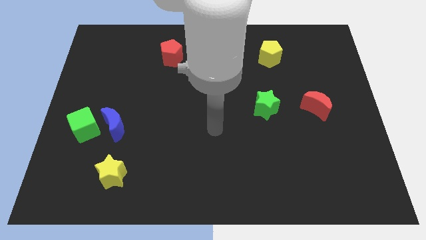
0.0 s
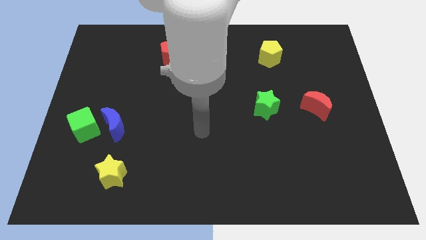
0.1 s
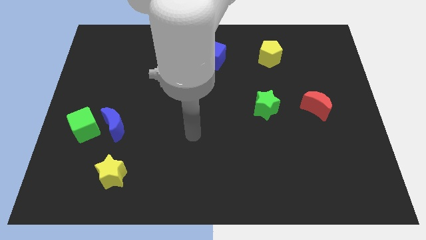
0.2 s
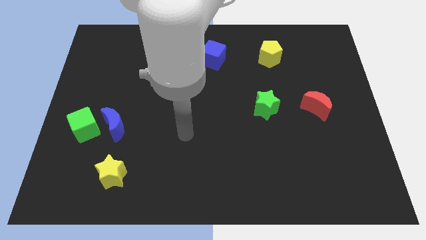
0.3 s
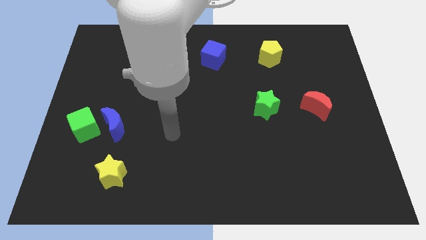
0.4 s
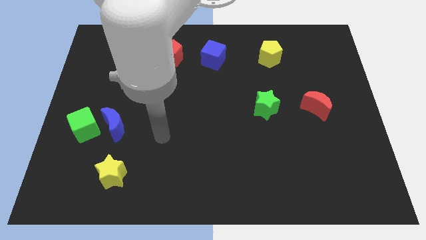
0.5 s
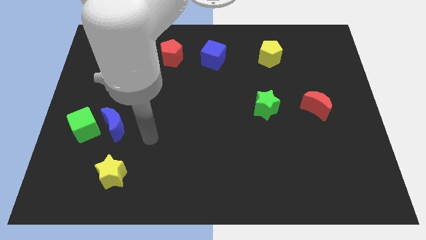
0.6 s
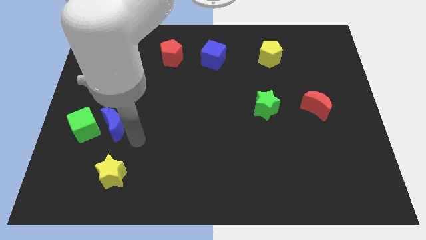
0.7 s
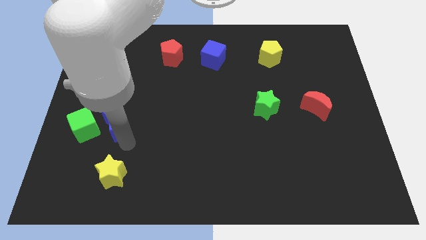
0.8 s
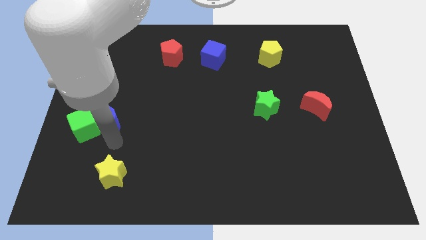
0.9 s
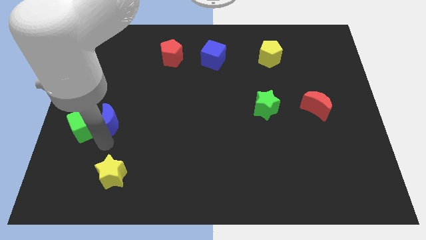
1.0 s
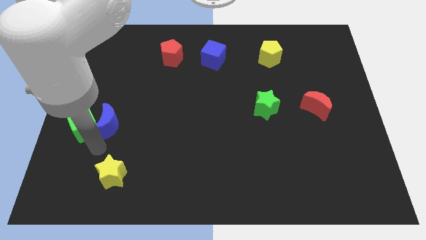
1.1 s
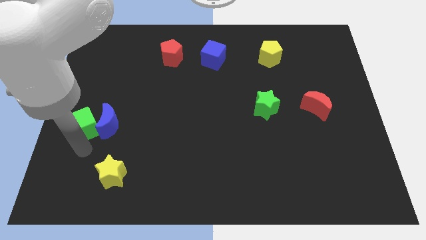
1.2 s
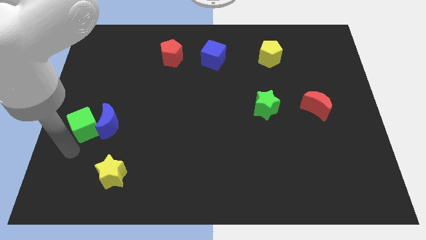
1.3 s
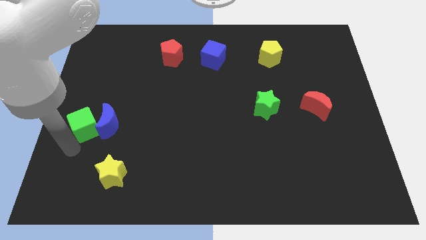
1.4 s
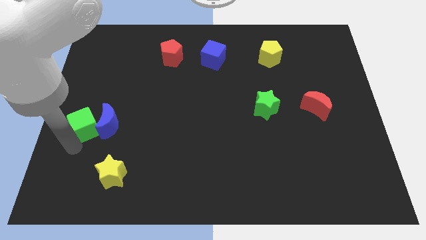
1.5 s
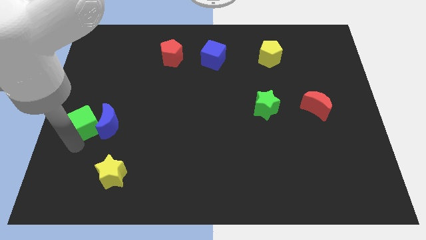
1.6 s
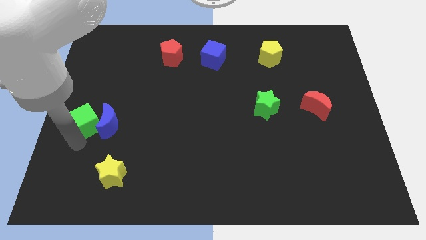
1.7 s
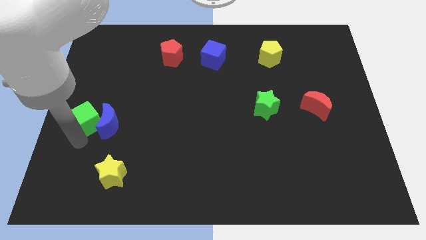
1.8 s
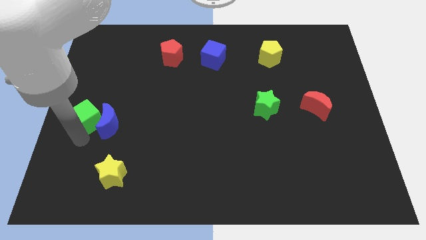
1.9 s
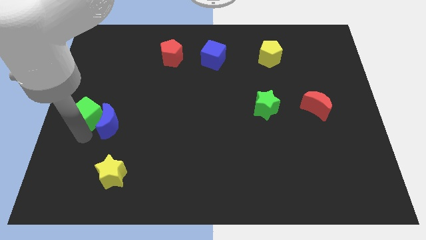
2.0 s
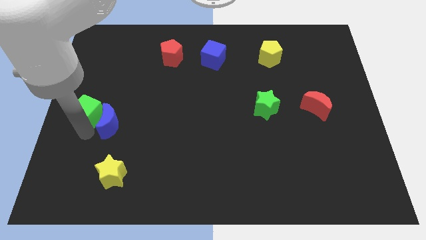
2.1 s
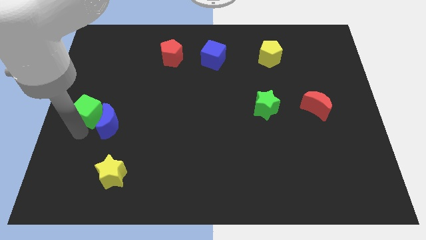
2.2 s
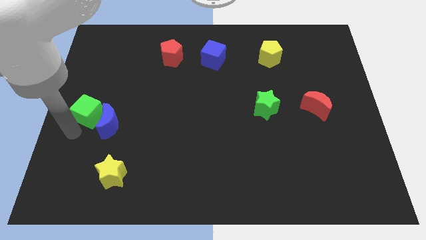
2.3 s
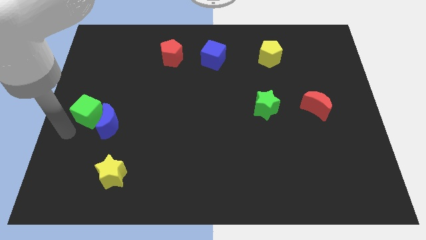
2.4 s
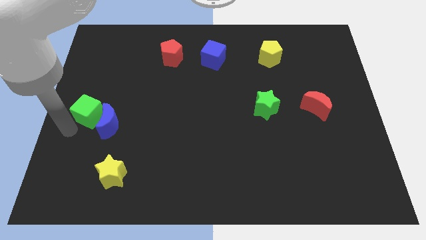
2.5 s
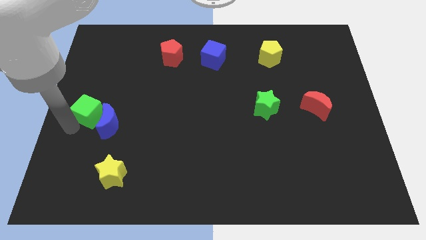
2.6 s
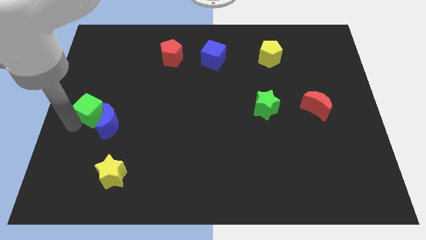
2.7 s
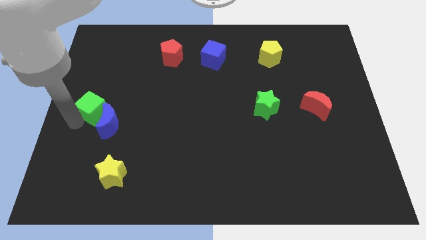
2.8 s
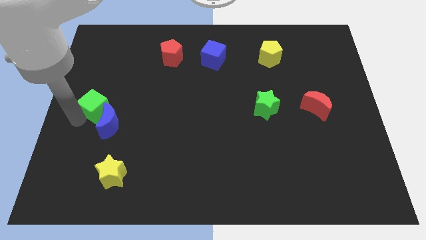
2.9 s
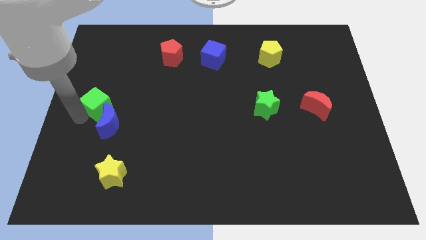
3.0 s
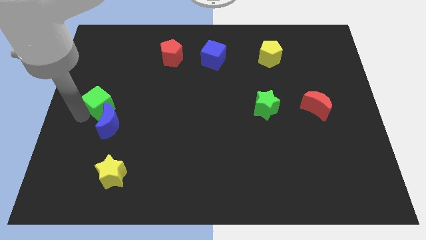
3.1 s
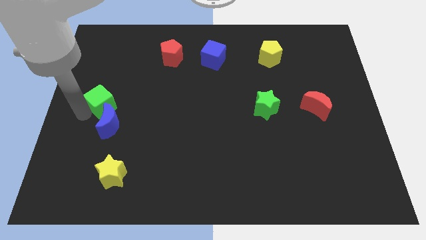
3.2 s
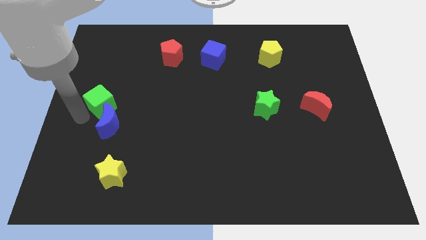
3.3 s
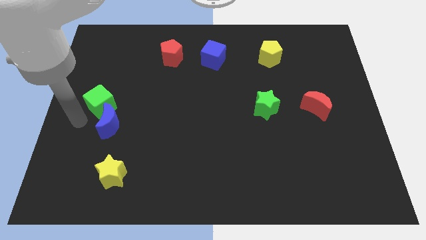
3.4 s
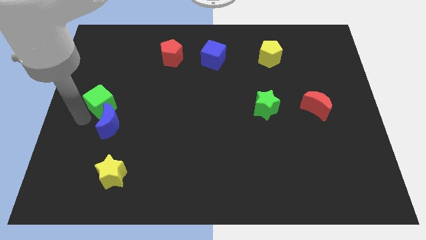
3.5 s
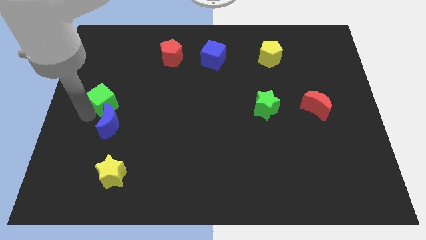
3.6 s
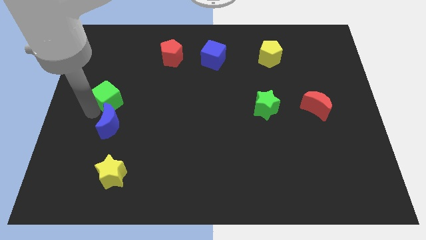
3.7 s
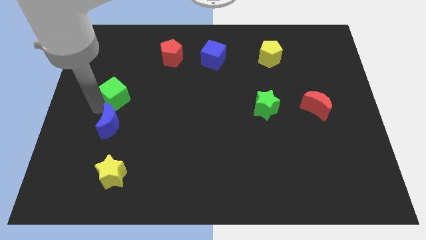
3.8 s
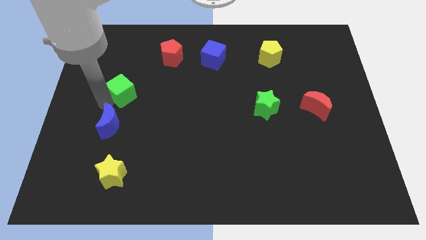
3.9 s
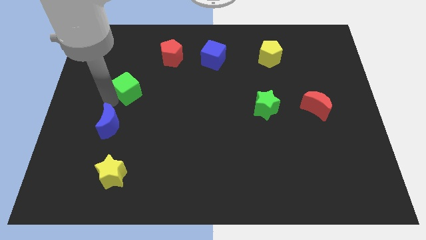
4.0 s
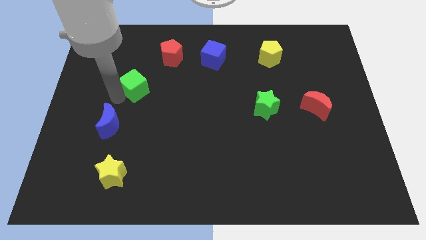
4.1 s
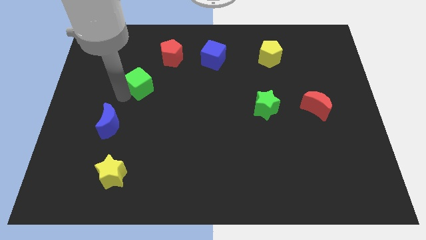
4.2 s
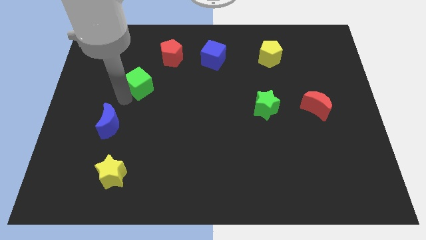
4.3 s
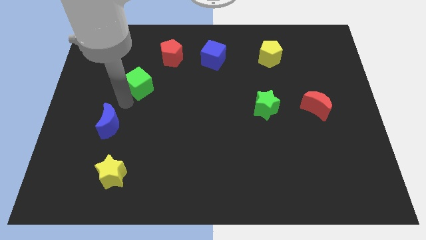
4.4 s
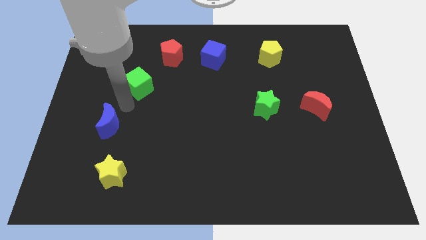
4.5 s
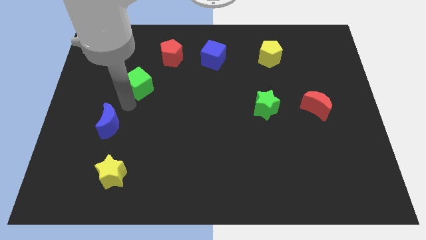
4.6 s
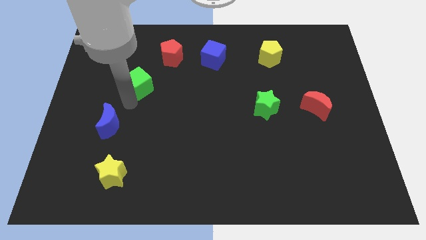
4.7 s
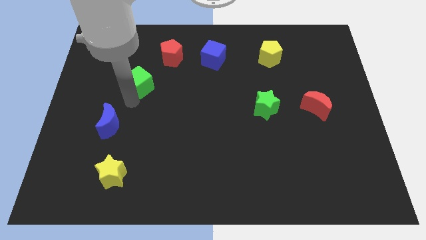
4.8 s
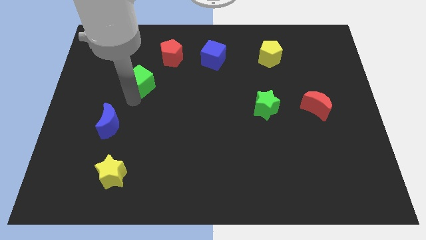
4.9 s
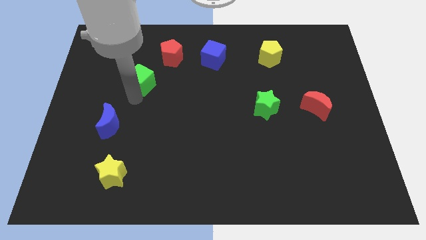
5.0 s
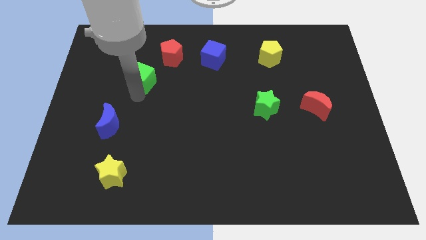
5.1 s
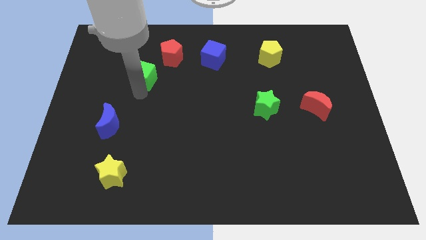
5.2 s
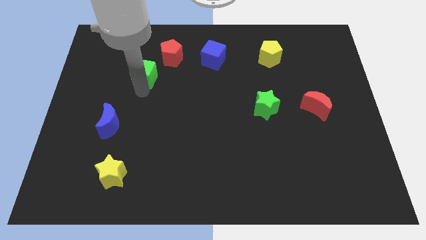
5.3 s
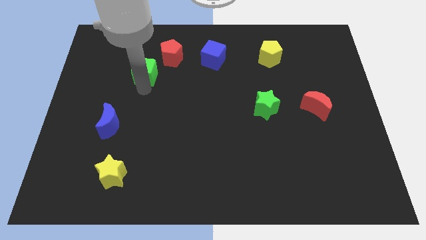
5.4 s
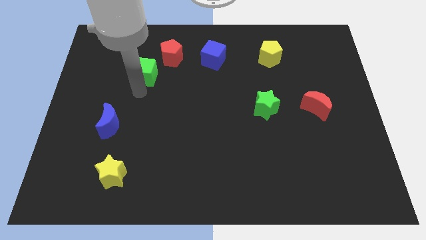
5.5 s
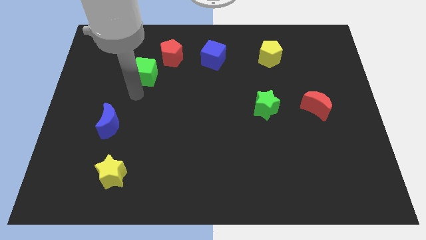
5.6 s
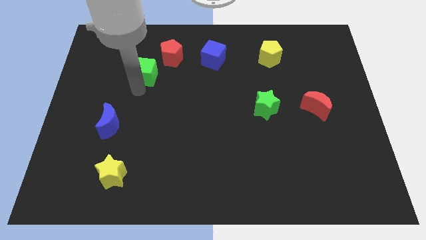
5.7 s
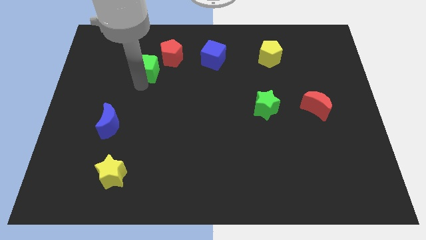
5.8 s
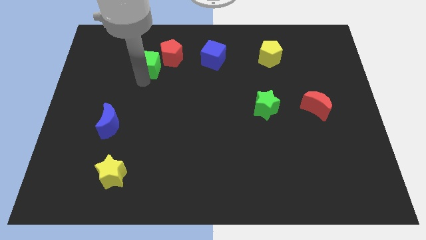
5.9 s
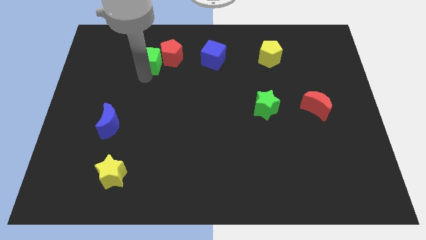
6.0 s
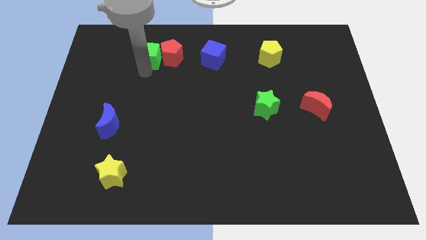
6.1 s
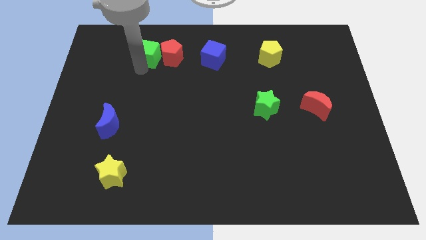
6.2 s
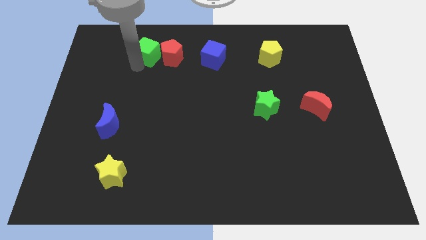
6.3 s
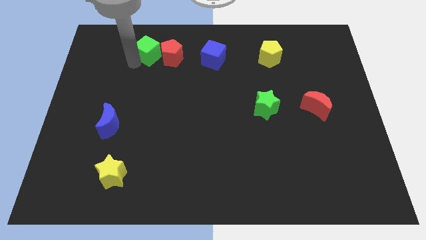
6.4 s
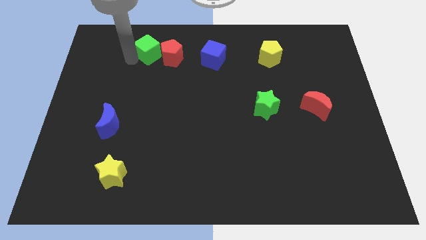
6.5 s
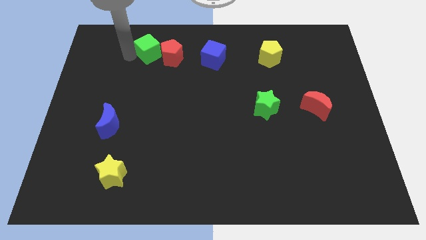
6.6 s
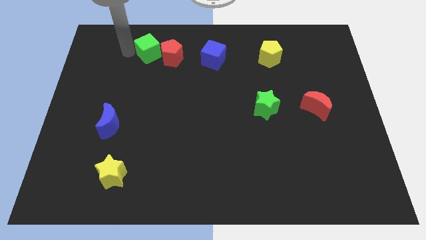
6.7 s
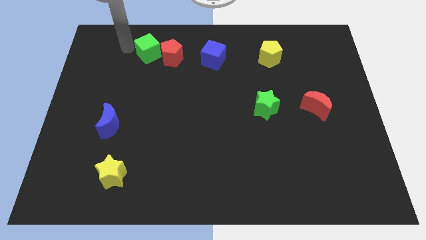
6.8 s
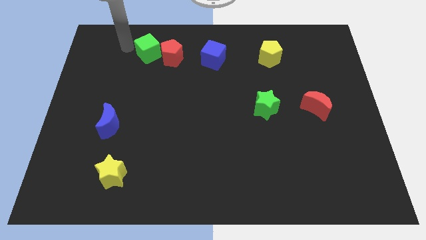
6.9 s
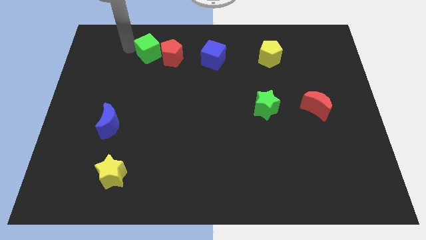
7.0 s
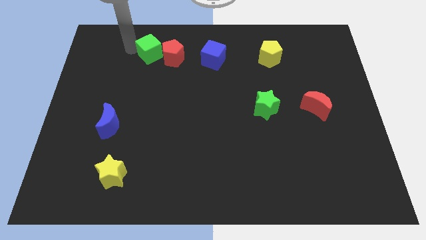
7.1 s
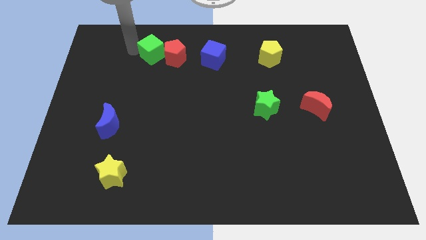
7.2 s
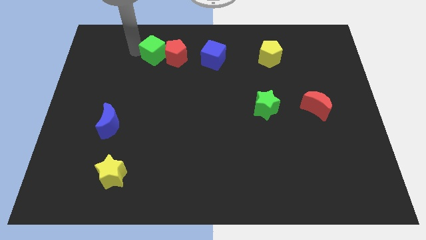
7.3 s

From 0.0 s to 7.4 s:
slide the green cube to the left of the blue cube
